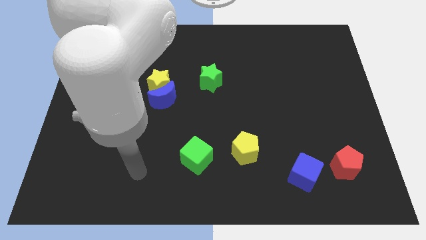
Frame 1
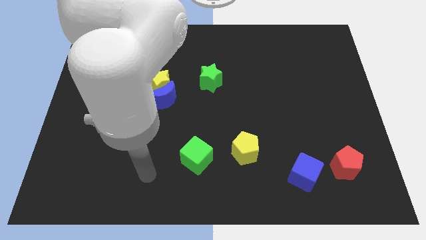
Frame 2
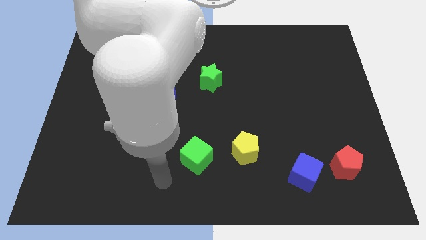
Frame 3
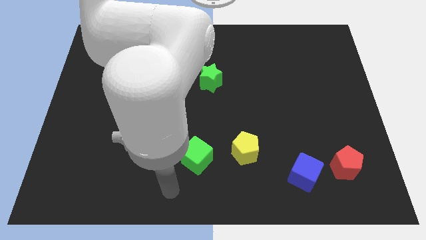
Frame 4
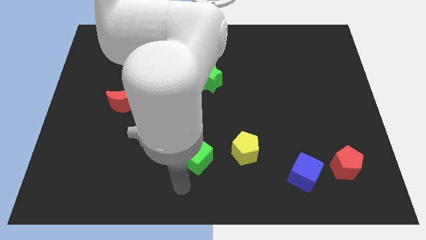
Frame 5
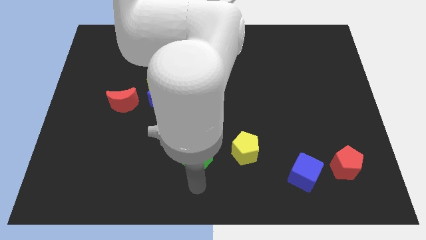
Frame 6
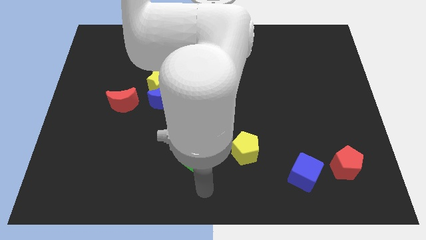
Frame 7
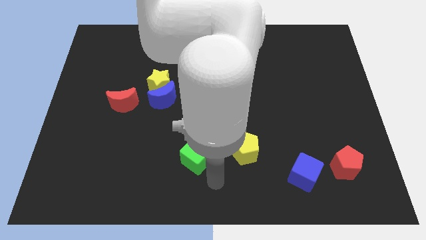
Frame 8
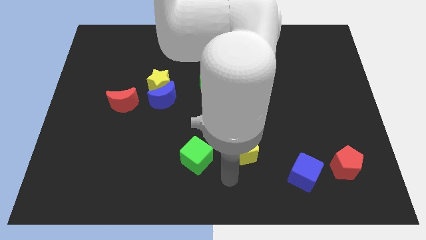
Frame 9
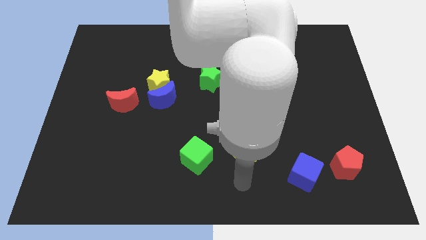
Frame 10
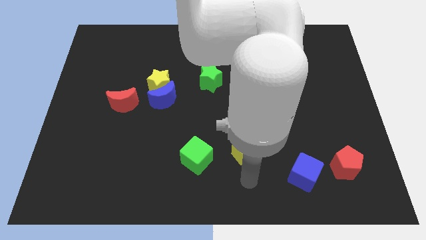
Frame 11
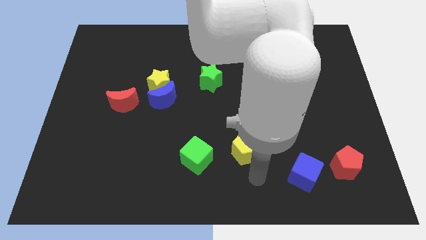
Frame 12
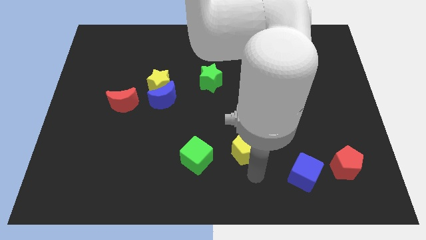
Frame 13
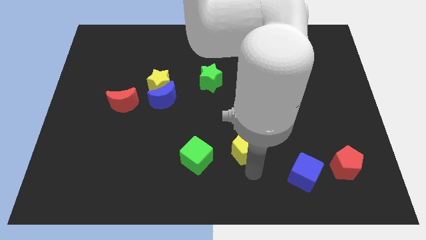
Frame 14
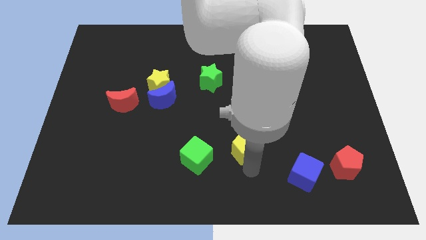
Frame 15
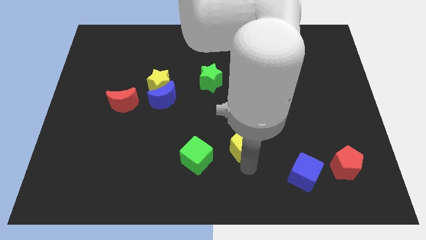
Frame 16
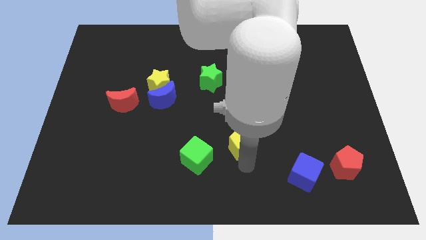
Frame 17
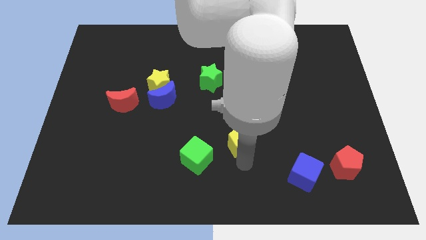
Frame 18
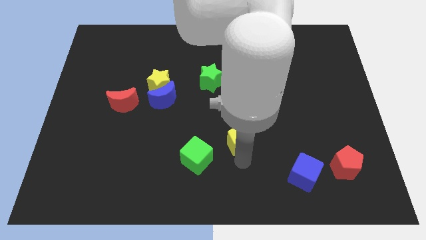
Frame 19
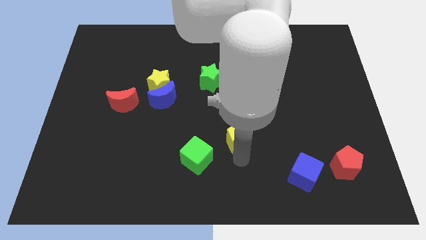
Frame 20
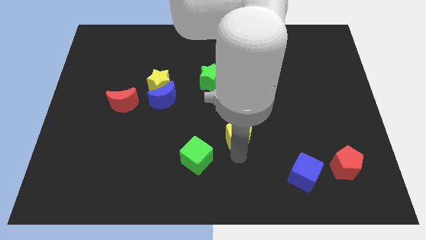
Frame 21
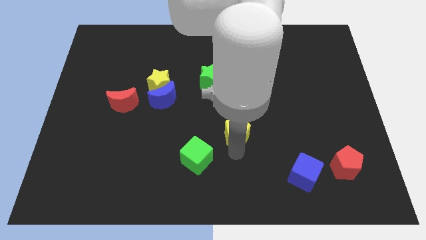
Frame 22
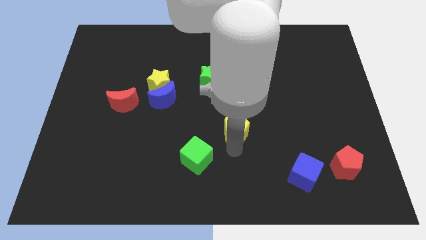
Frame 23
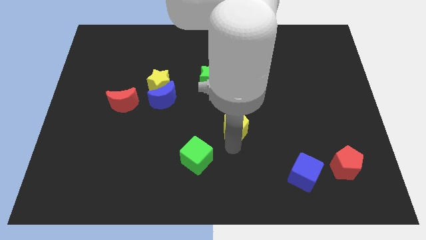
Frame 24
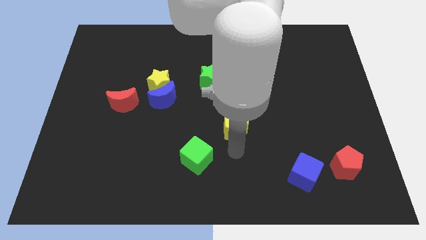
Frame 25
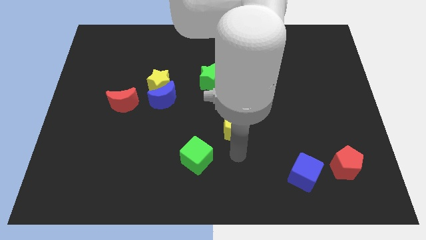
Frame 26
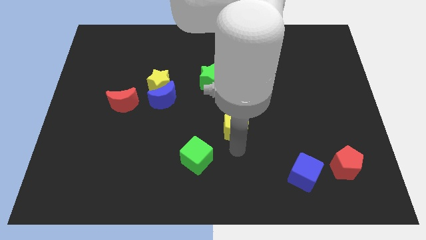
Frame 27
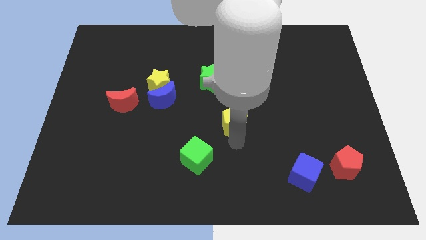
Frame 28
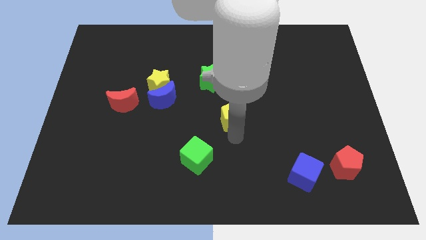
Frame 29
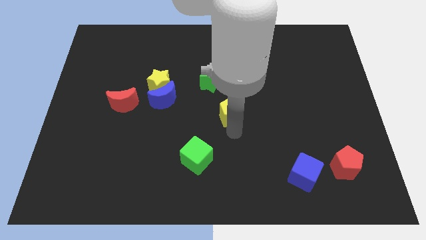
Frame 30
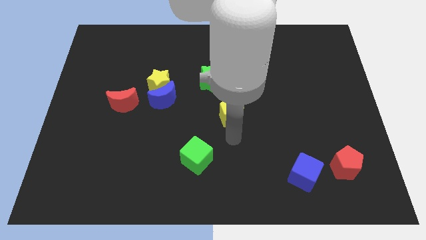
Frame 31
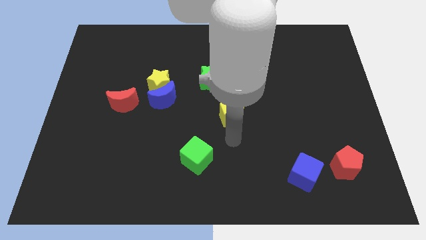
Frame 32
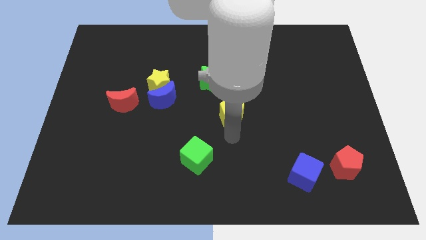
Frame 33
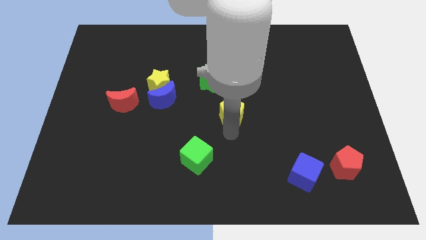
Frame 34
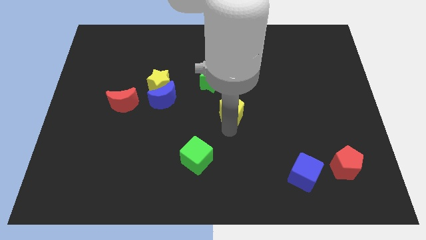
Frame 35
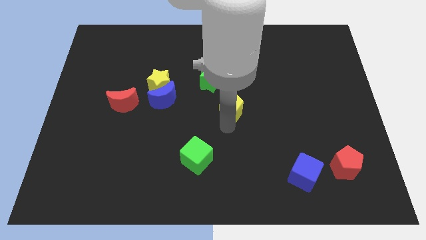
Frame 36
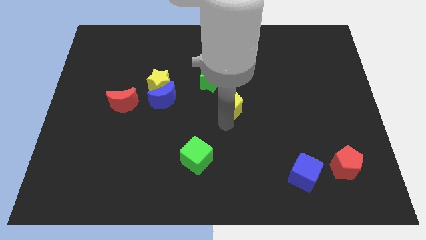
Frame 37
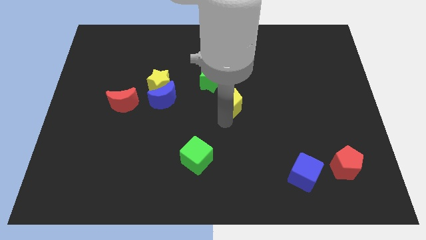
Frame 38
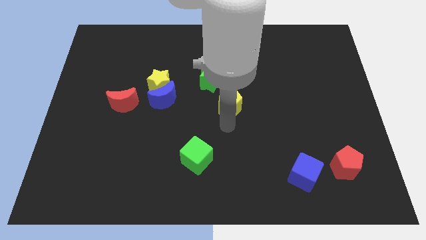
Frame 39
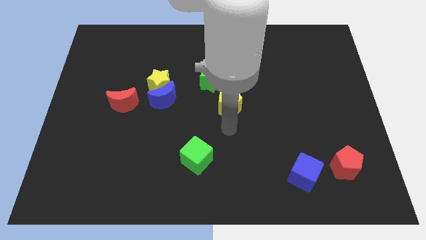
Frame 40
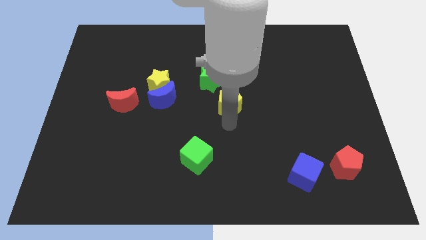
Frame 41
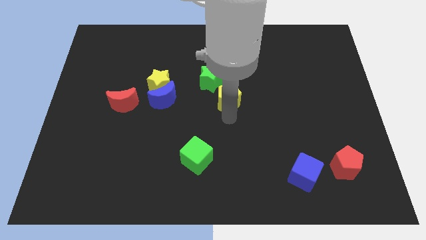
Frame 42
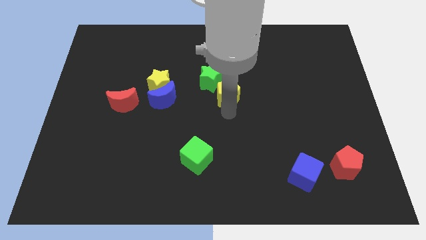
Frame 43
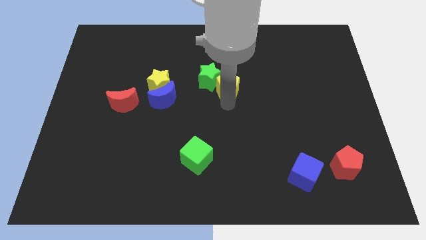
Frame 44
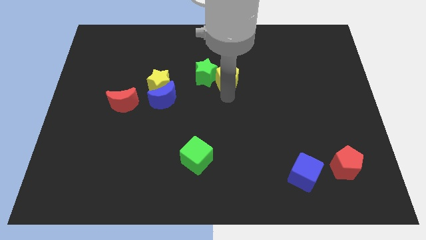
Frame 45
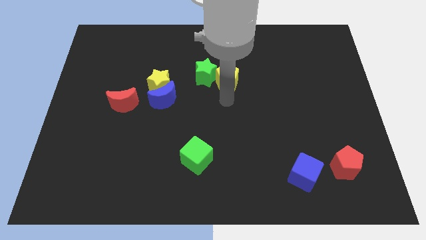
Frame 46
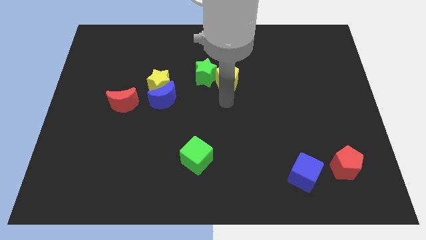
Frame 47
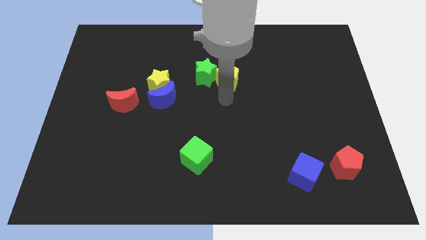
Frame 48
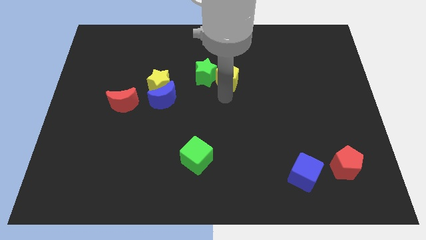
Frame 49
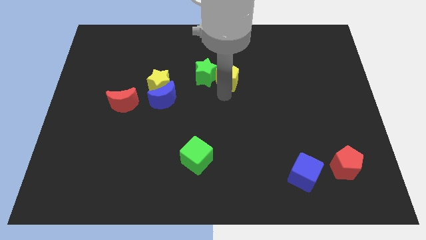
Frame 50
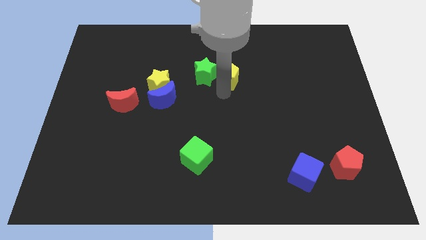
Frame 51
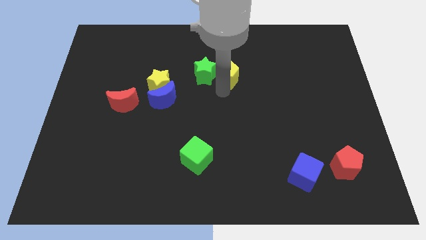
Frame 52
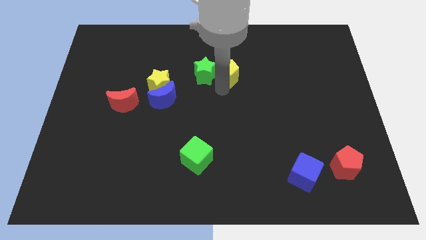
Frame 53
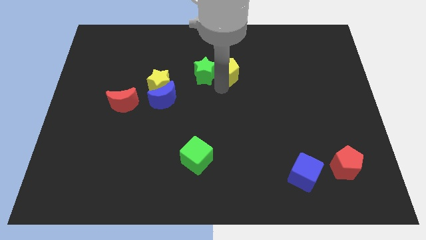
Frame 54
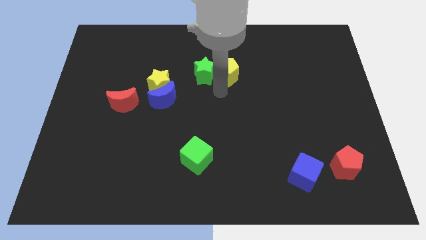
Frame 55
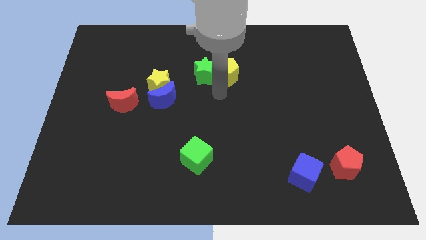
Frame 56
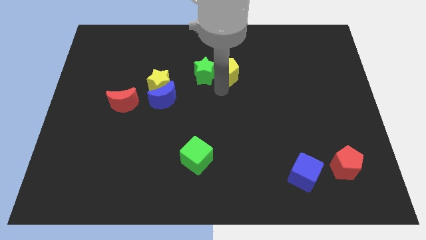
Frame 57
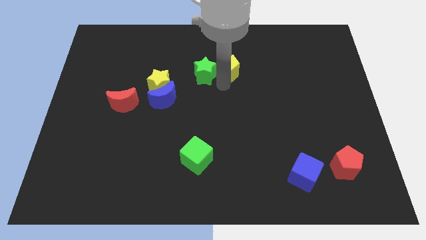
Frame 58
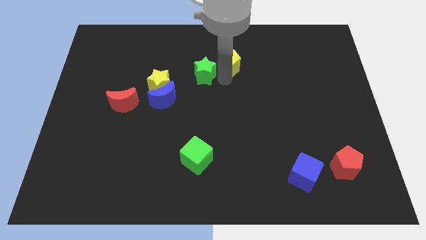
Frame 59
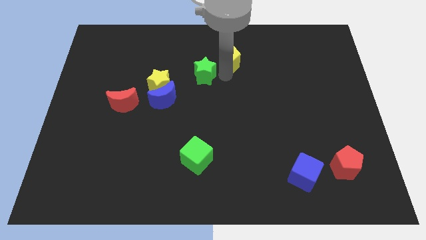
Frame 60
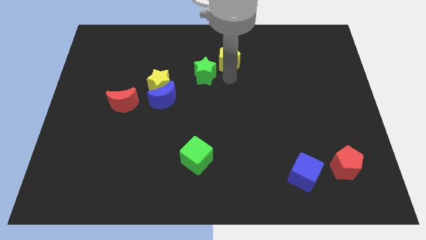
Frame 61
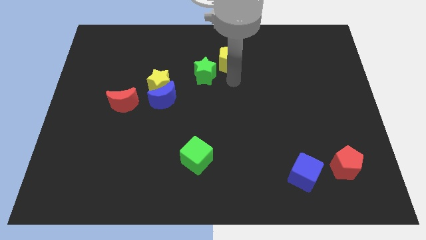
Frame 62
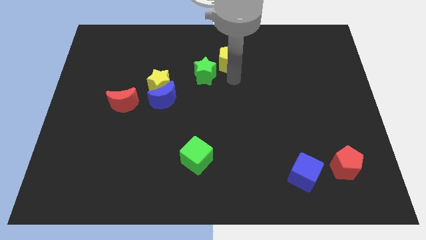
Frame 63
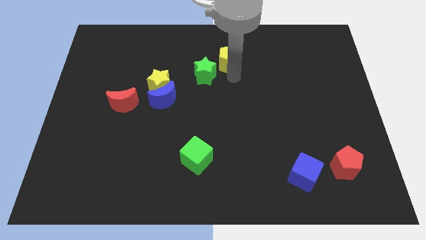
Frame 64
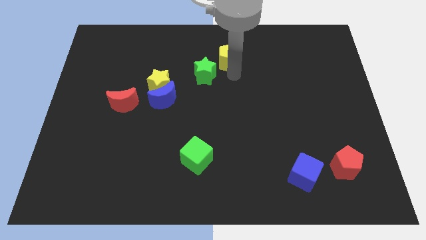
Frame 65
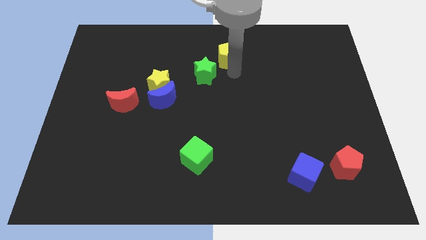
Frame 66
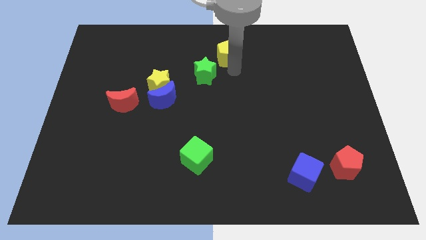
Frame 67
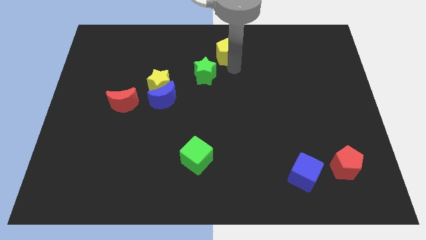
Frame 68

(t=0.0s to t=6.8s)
put the yellow pentagon to the top side
